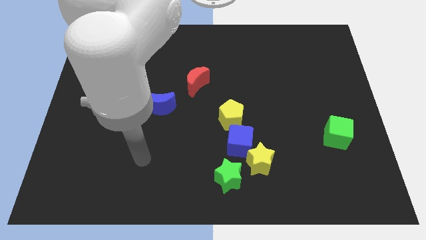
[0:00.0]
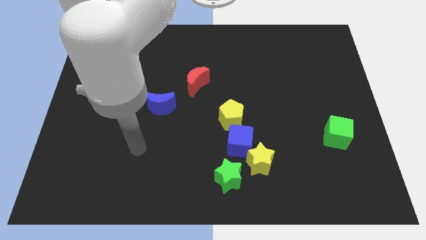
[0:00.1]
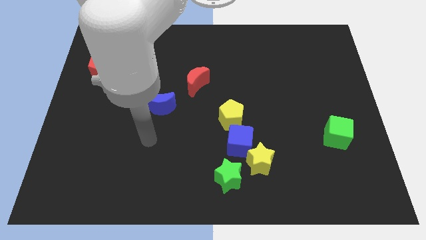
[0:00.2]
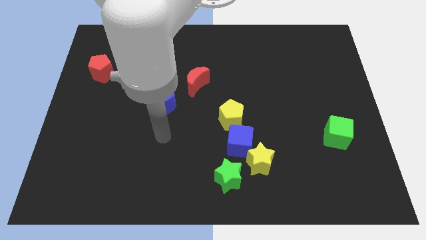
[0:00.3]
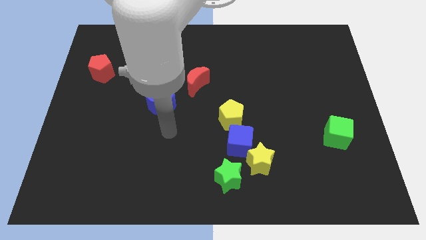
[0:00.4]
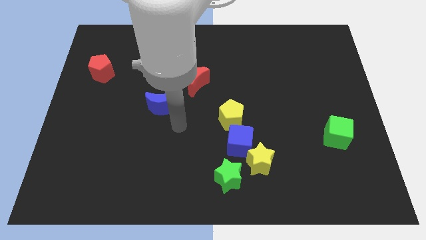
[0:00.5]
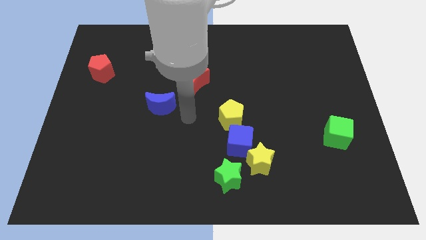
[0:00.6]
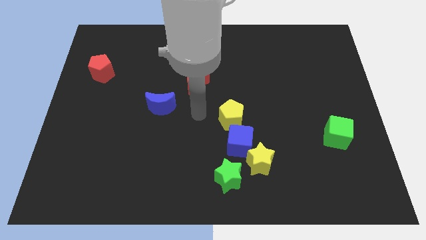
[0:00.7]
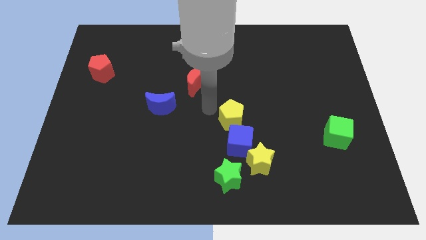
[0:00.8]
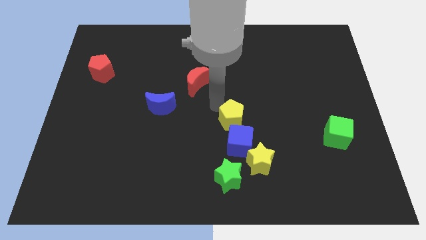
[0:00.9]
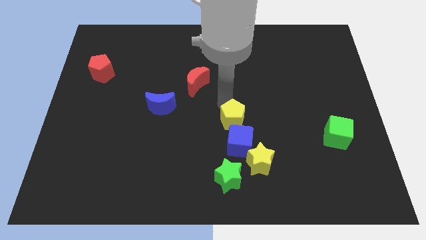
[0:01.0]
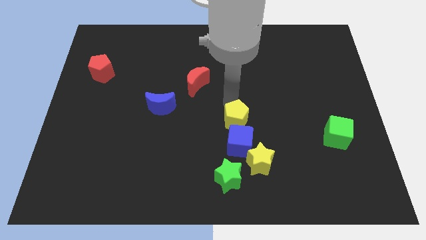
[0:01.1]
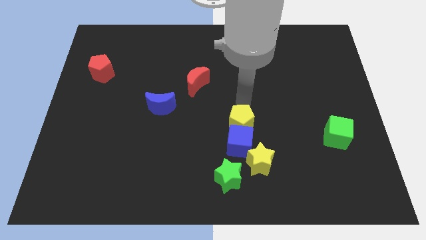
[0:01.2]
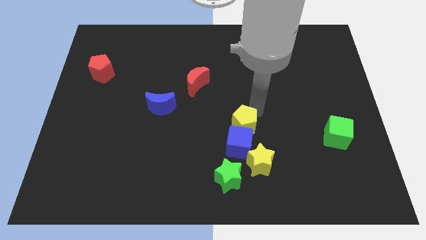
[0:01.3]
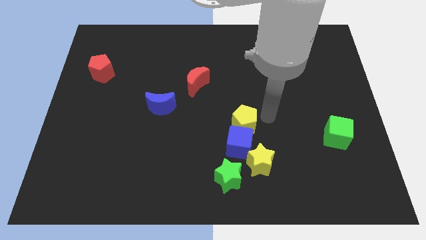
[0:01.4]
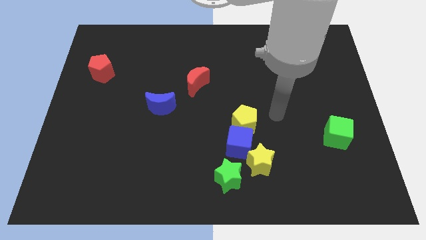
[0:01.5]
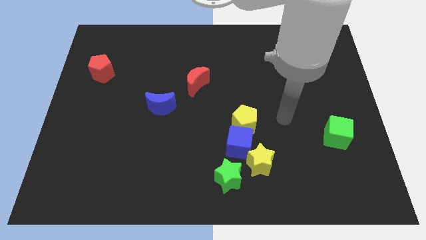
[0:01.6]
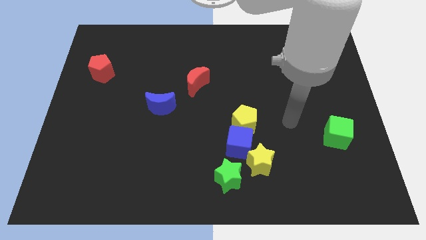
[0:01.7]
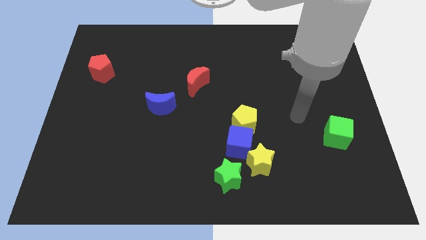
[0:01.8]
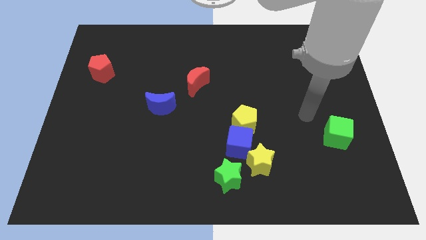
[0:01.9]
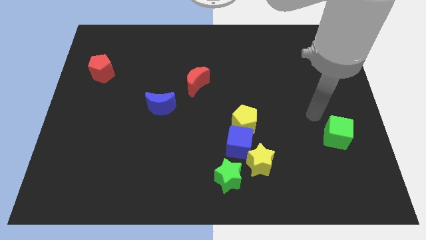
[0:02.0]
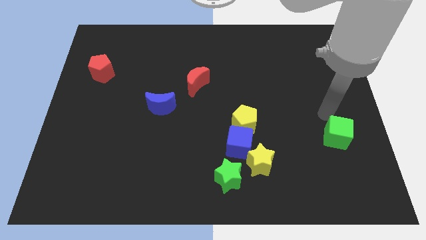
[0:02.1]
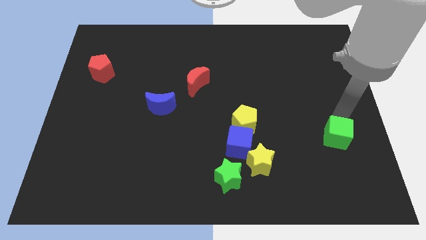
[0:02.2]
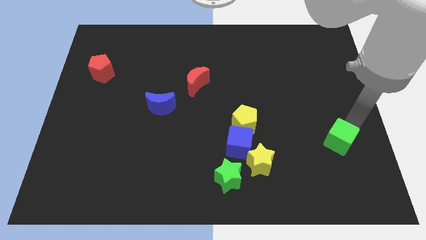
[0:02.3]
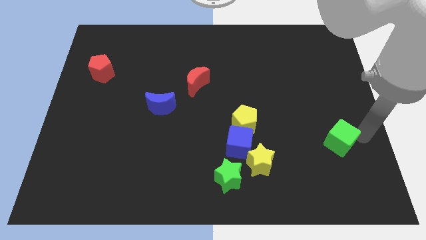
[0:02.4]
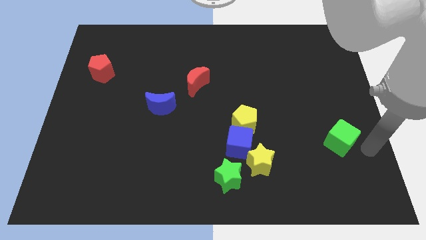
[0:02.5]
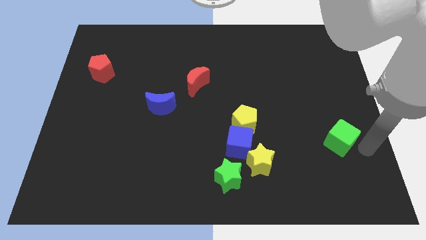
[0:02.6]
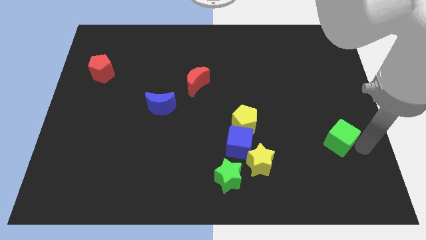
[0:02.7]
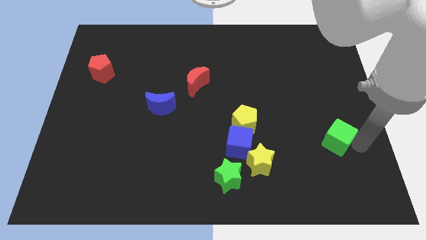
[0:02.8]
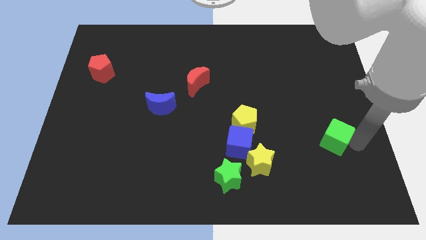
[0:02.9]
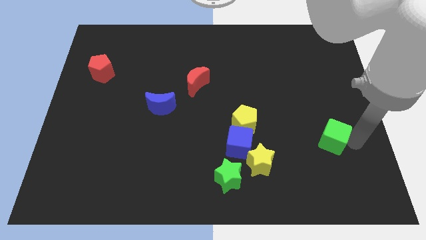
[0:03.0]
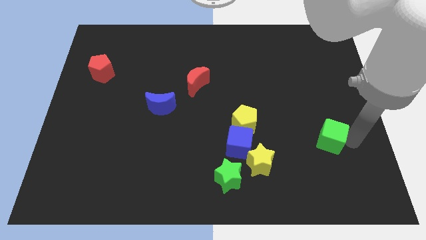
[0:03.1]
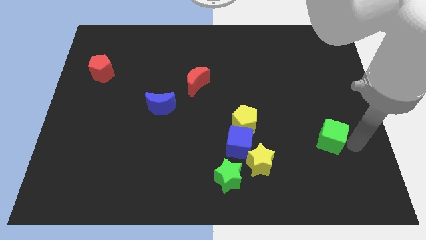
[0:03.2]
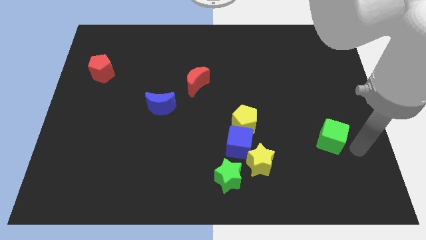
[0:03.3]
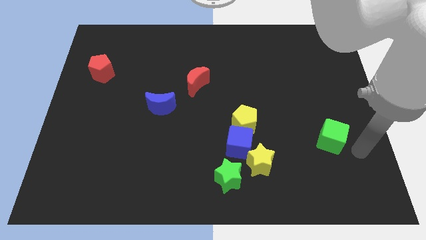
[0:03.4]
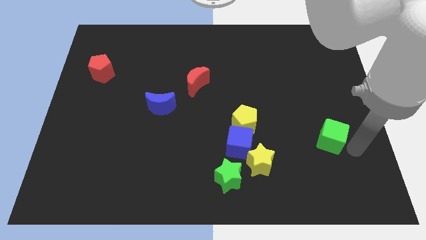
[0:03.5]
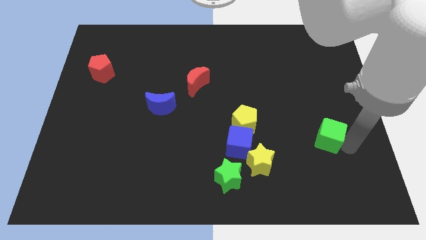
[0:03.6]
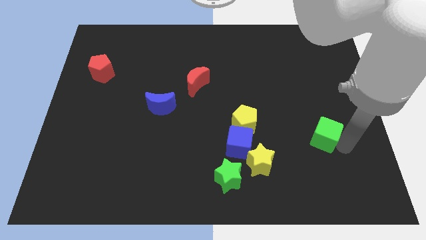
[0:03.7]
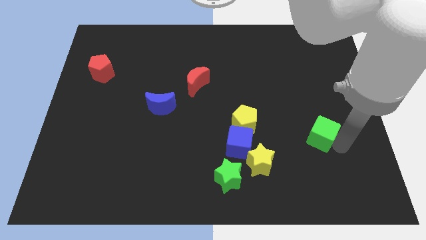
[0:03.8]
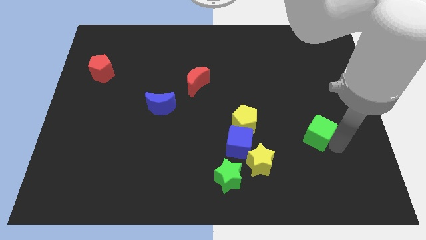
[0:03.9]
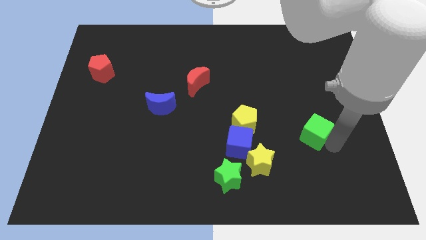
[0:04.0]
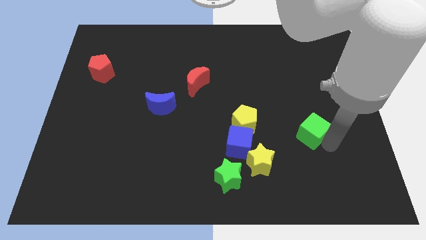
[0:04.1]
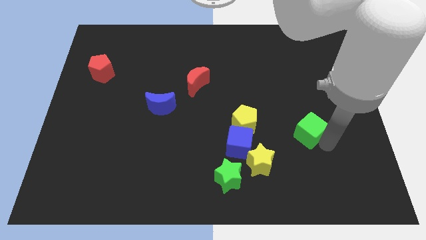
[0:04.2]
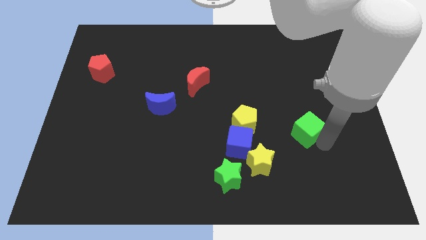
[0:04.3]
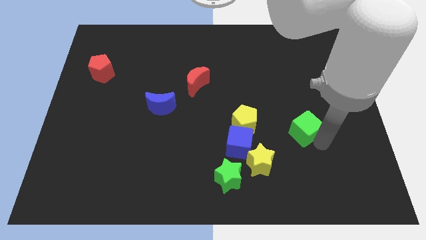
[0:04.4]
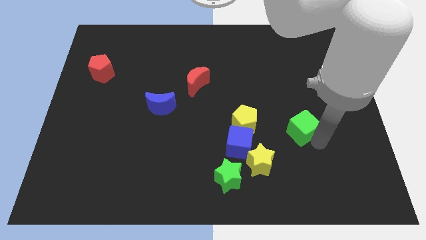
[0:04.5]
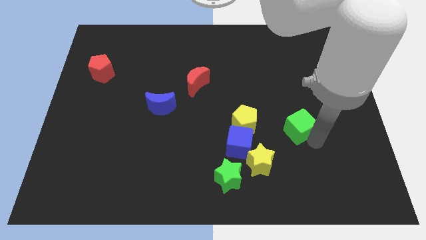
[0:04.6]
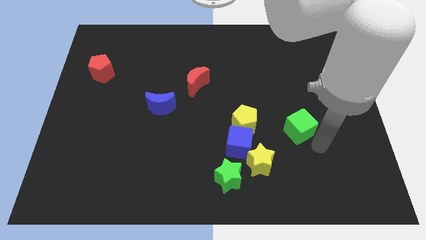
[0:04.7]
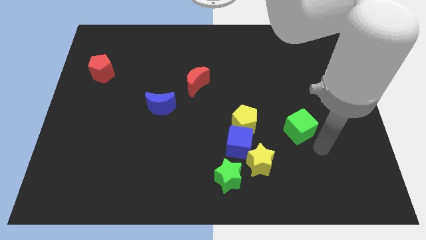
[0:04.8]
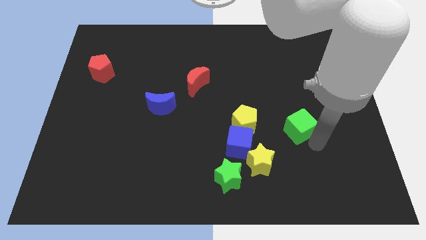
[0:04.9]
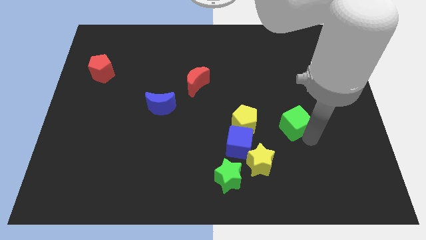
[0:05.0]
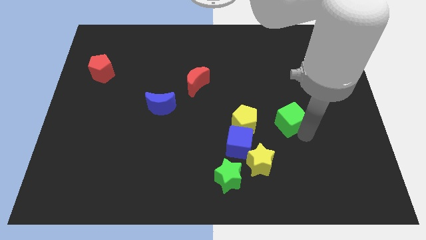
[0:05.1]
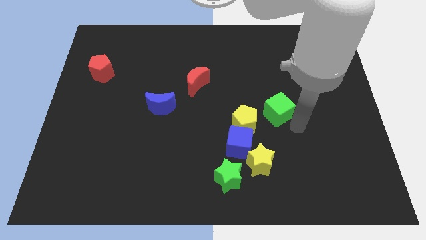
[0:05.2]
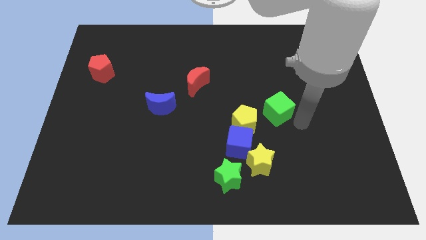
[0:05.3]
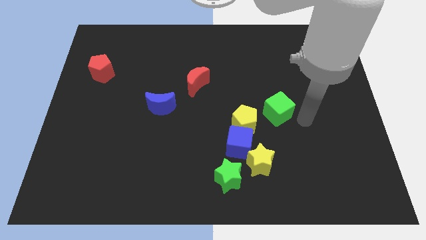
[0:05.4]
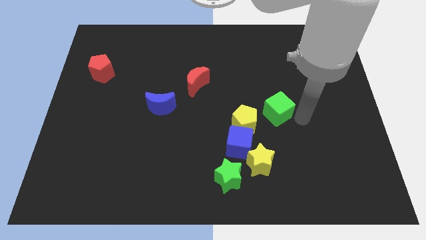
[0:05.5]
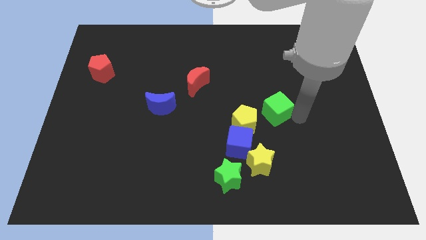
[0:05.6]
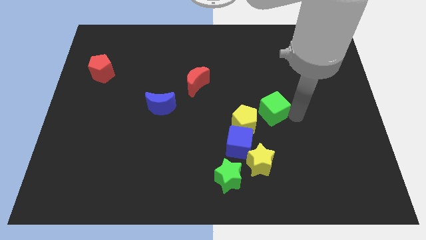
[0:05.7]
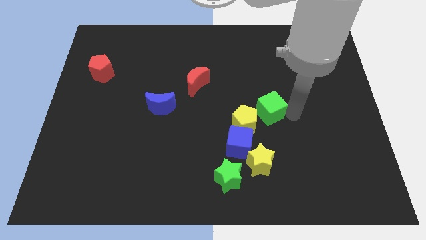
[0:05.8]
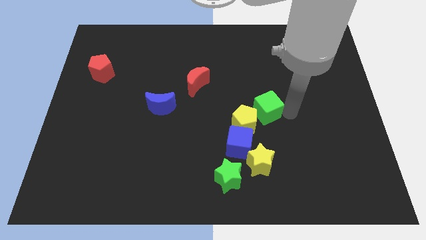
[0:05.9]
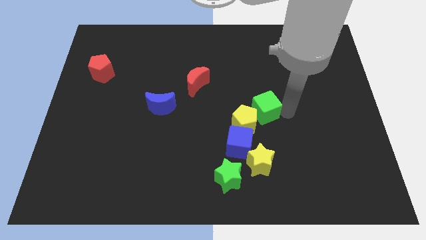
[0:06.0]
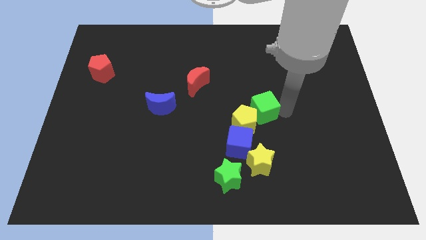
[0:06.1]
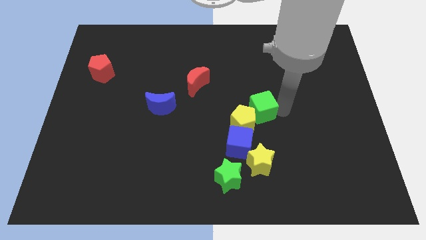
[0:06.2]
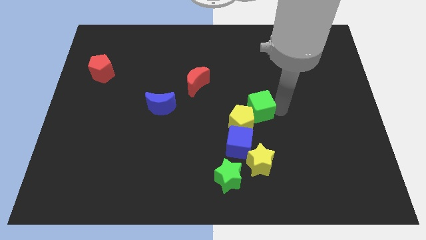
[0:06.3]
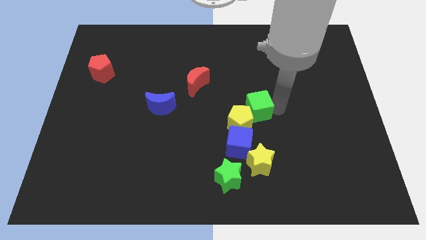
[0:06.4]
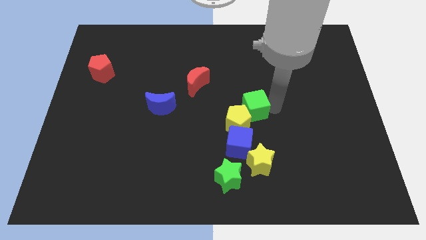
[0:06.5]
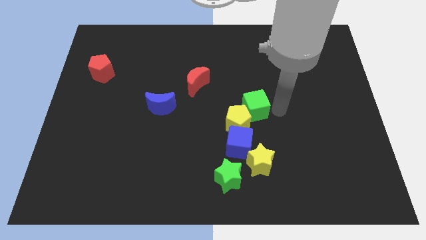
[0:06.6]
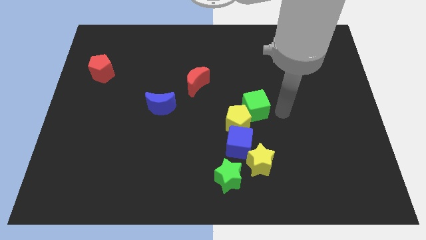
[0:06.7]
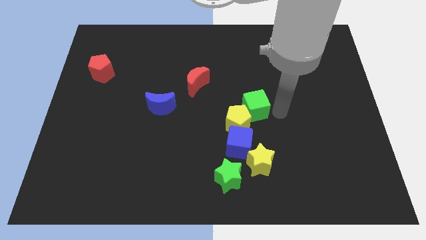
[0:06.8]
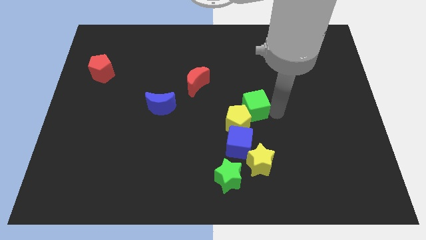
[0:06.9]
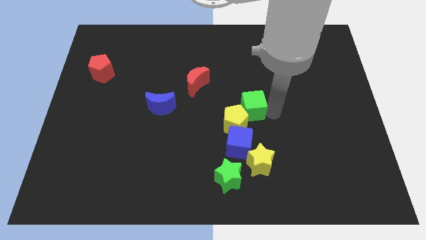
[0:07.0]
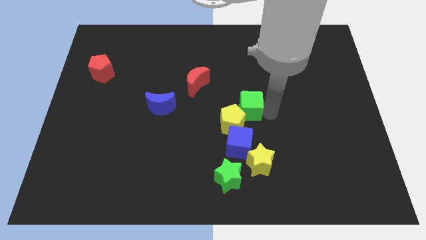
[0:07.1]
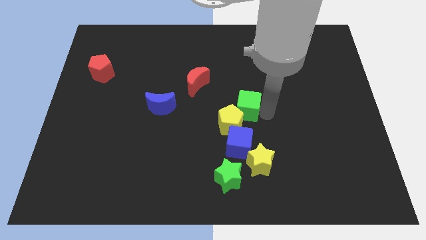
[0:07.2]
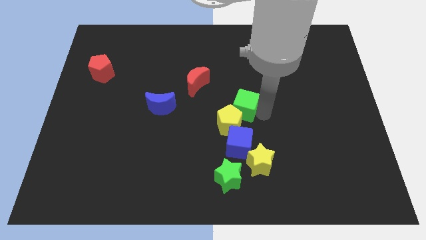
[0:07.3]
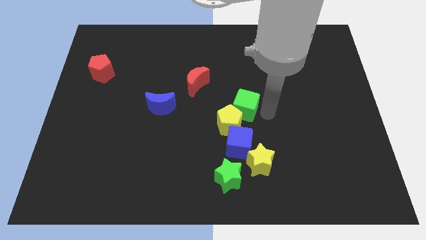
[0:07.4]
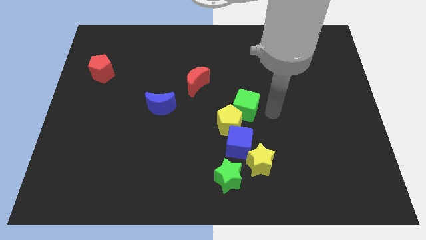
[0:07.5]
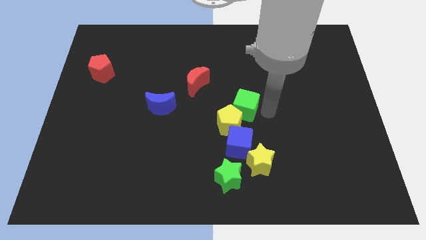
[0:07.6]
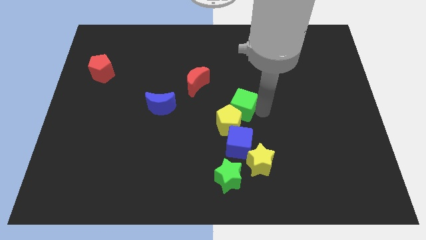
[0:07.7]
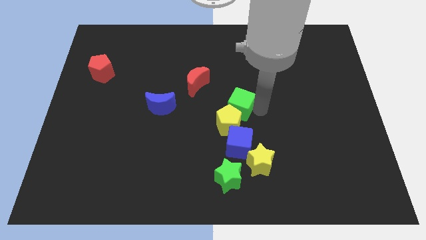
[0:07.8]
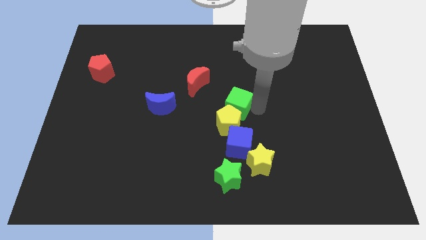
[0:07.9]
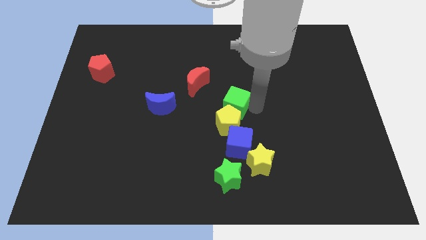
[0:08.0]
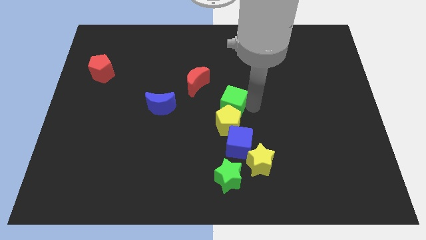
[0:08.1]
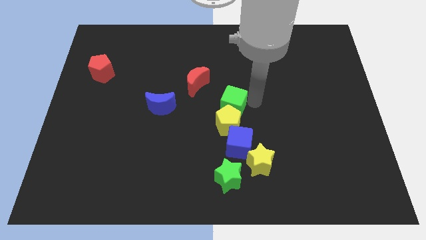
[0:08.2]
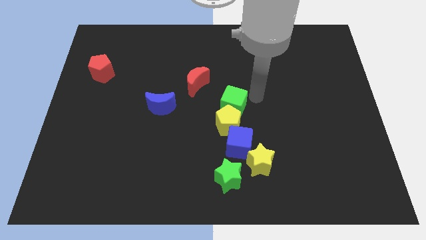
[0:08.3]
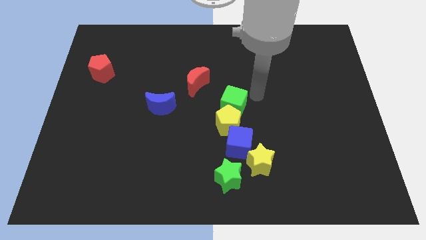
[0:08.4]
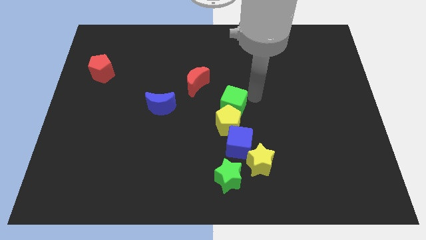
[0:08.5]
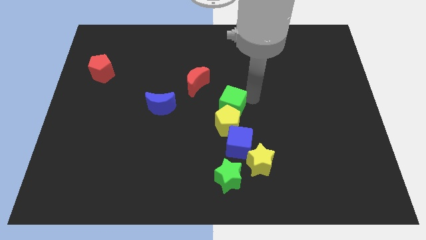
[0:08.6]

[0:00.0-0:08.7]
move the green cube left
